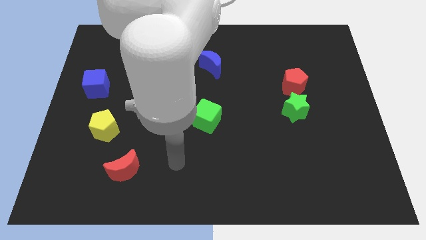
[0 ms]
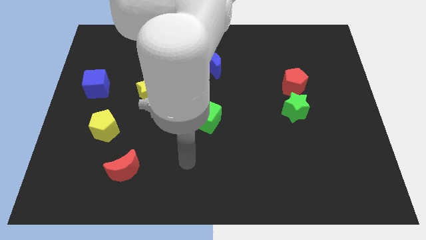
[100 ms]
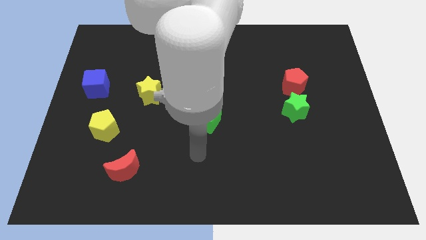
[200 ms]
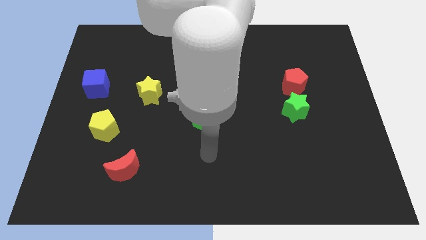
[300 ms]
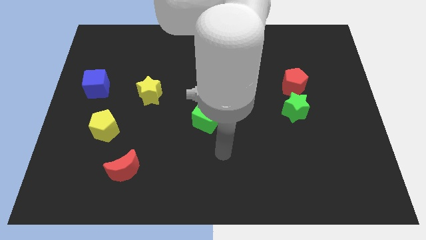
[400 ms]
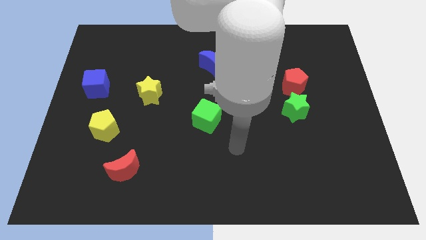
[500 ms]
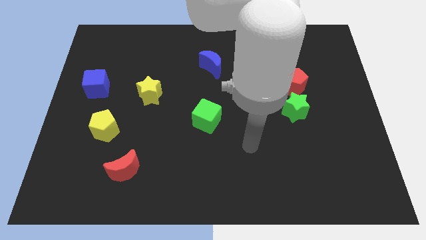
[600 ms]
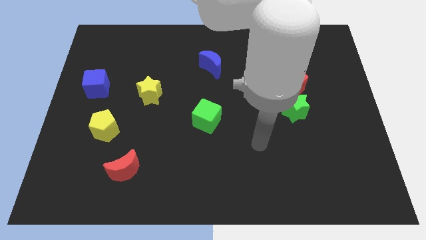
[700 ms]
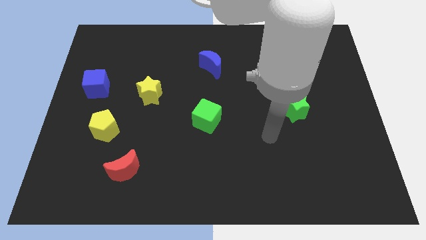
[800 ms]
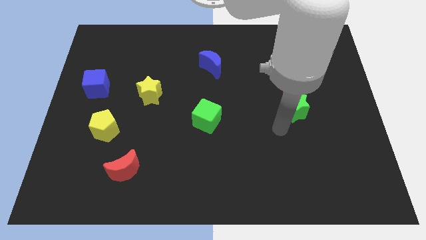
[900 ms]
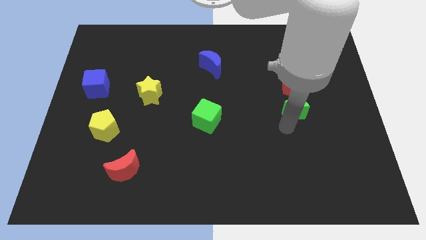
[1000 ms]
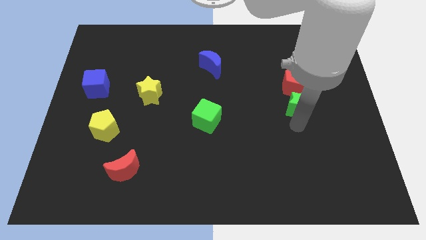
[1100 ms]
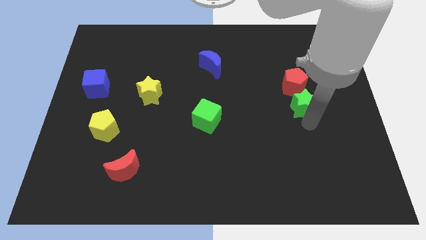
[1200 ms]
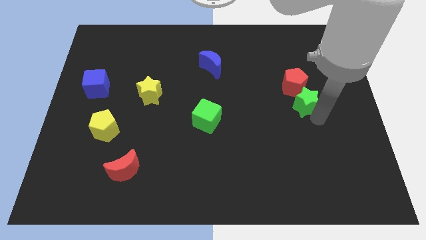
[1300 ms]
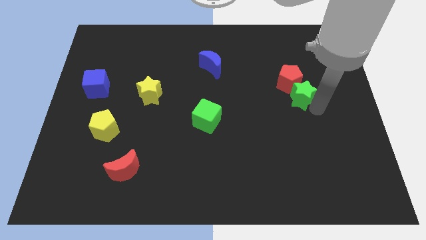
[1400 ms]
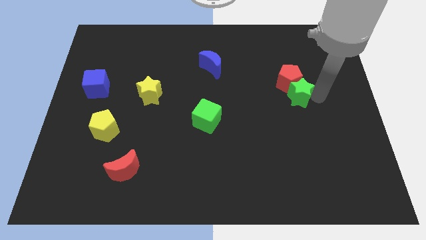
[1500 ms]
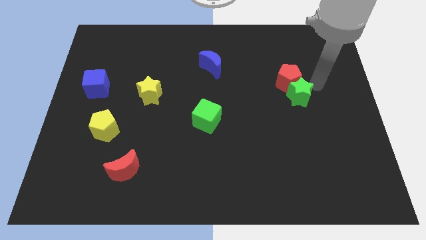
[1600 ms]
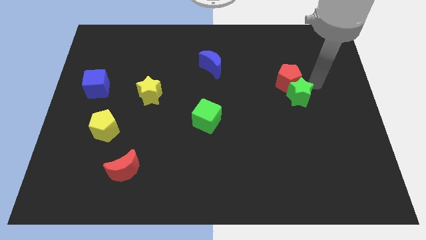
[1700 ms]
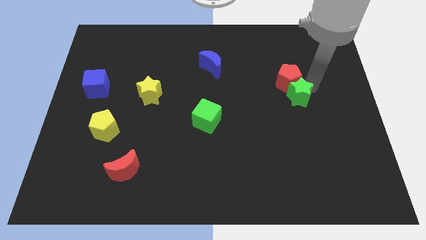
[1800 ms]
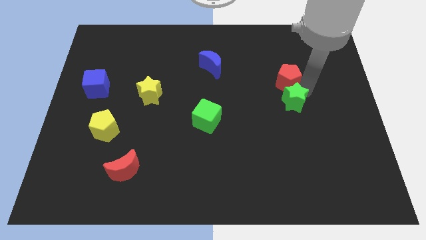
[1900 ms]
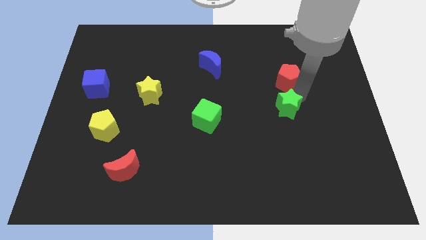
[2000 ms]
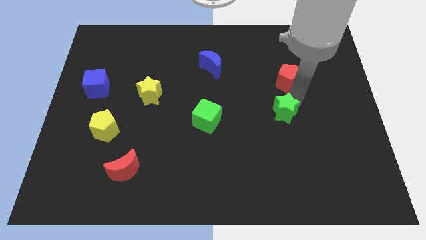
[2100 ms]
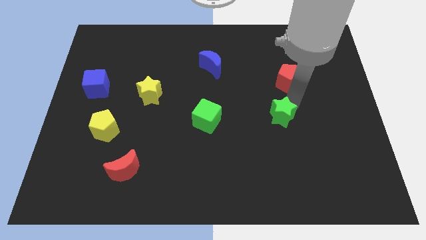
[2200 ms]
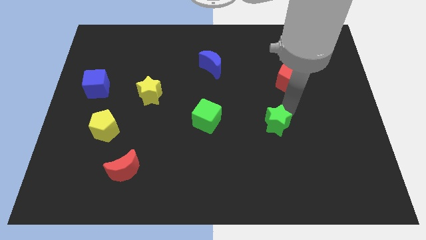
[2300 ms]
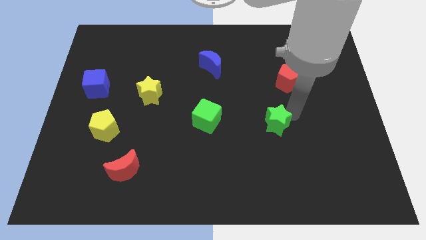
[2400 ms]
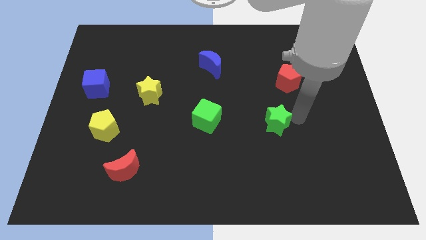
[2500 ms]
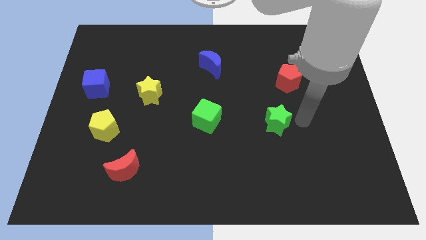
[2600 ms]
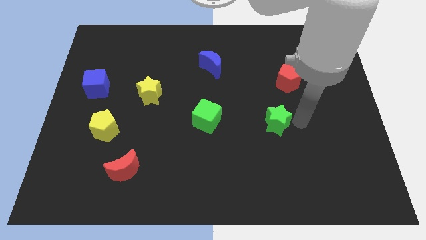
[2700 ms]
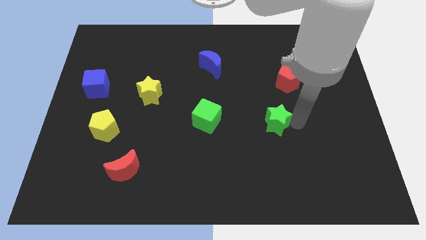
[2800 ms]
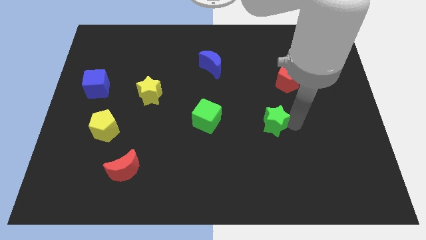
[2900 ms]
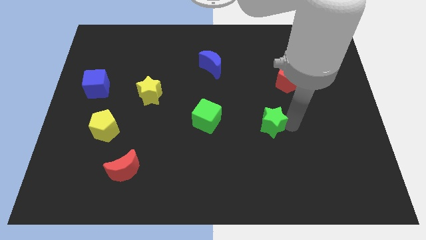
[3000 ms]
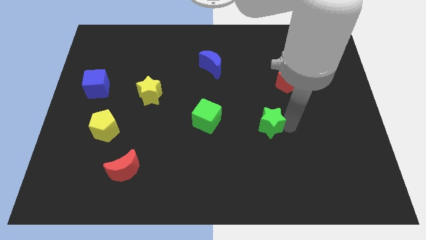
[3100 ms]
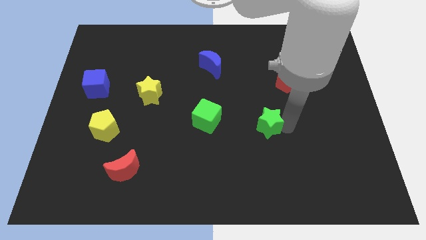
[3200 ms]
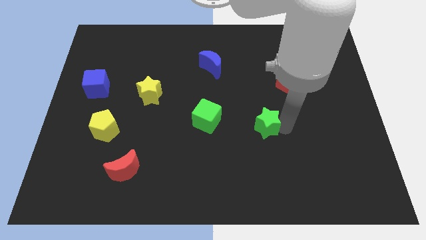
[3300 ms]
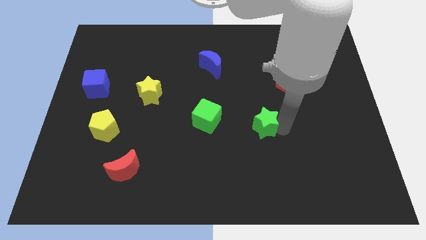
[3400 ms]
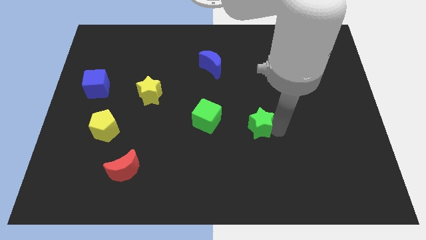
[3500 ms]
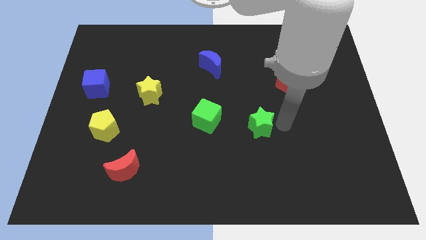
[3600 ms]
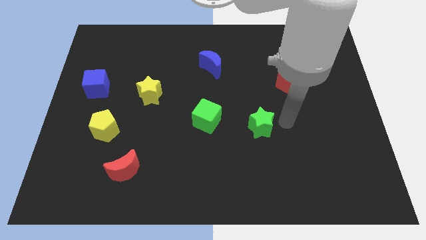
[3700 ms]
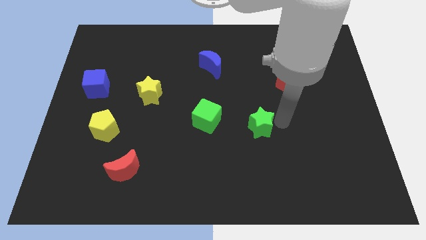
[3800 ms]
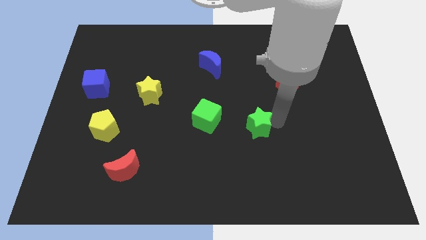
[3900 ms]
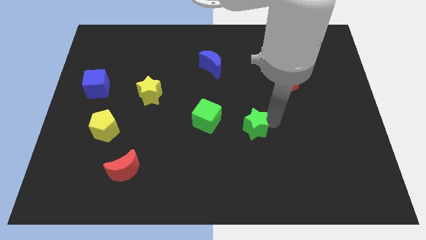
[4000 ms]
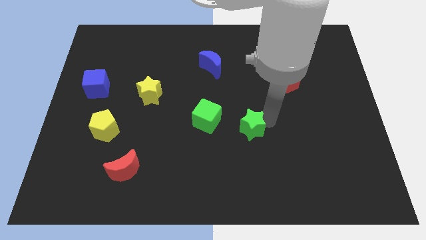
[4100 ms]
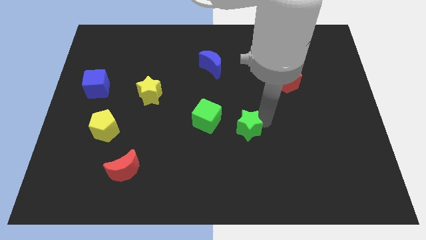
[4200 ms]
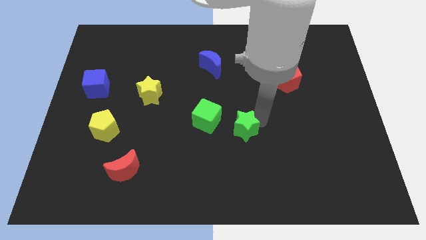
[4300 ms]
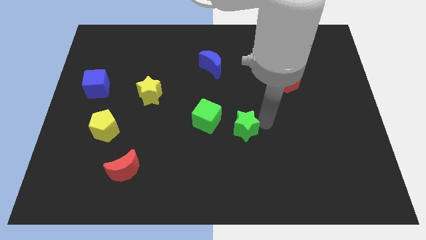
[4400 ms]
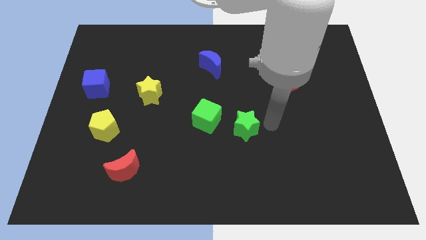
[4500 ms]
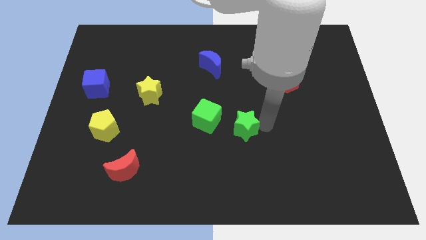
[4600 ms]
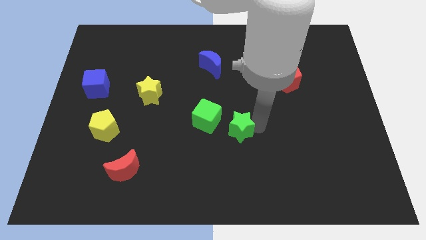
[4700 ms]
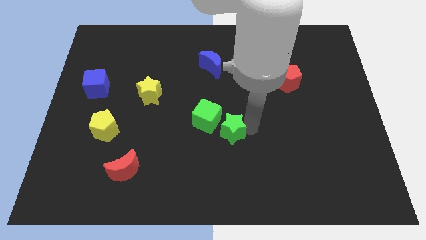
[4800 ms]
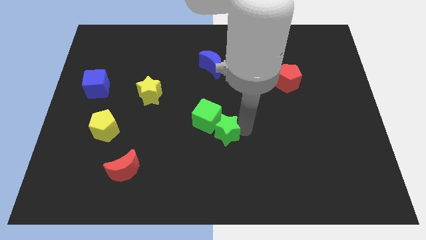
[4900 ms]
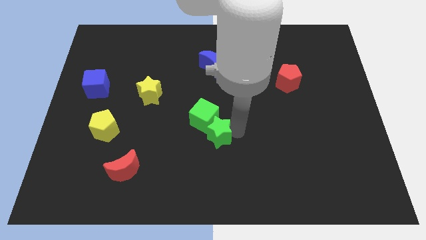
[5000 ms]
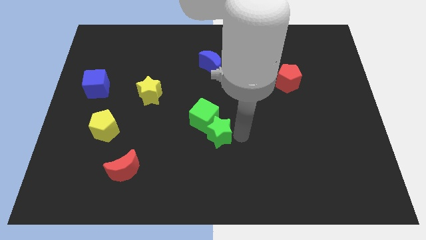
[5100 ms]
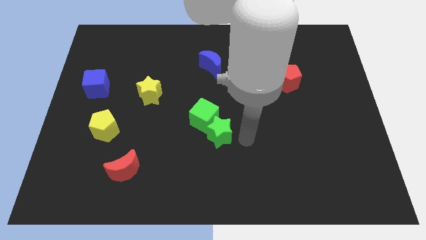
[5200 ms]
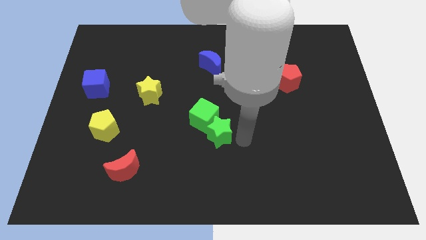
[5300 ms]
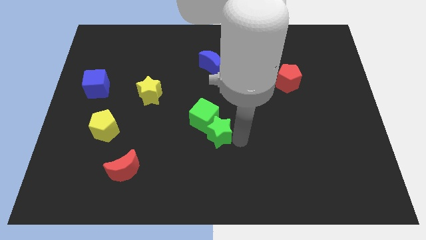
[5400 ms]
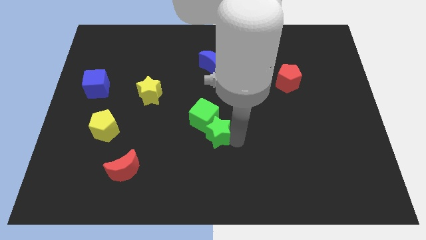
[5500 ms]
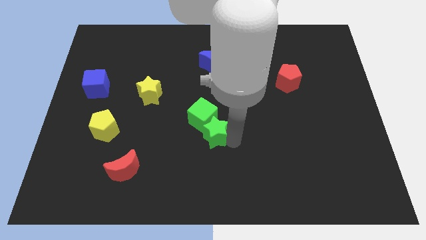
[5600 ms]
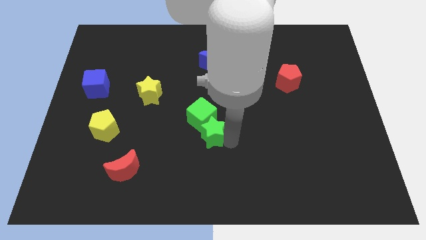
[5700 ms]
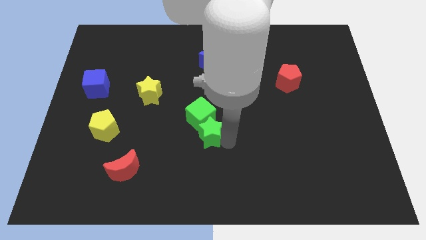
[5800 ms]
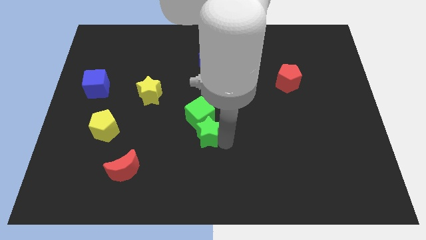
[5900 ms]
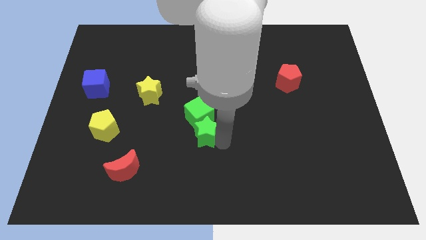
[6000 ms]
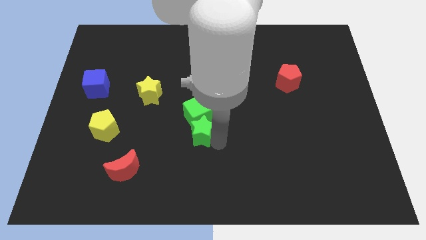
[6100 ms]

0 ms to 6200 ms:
slide the green star left

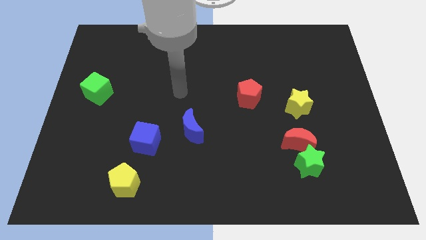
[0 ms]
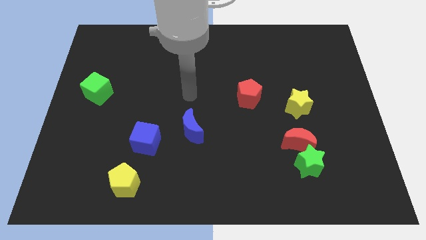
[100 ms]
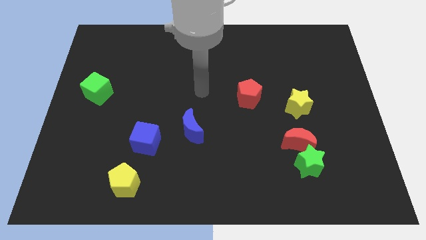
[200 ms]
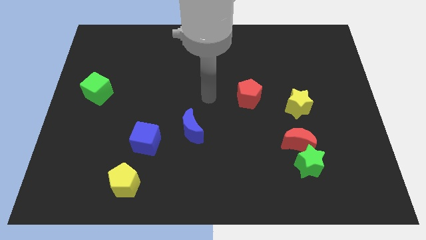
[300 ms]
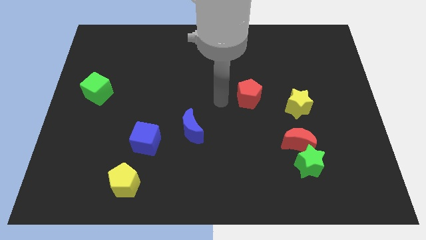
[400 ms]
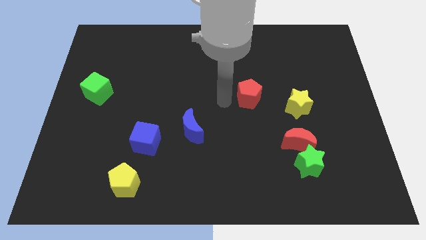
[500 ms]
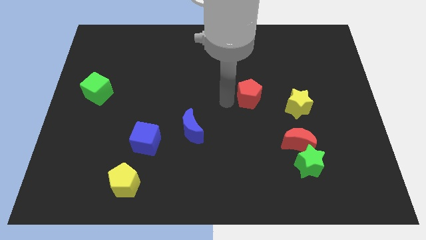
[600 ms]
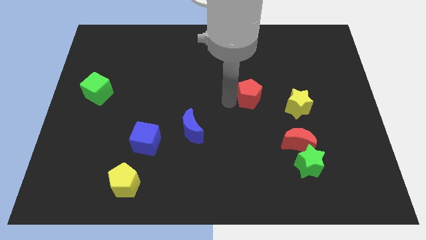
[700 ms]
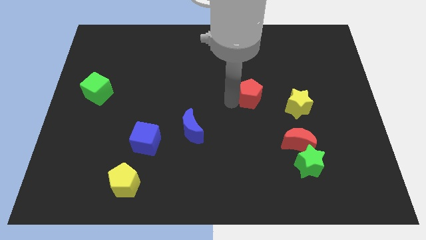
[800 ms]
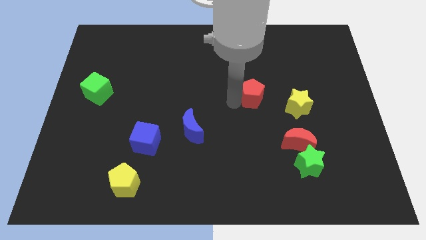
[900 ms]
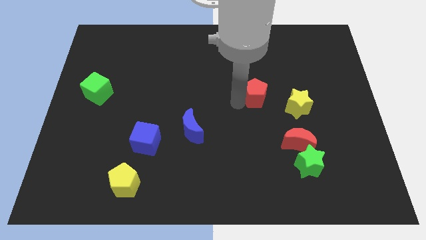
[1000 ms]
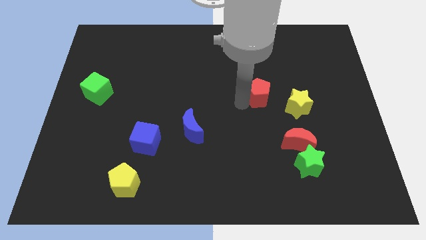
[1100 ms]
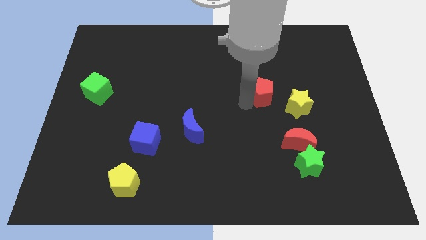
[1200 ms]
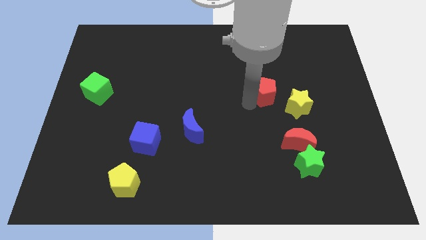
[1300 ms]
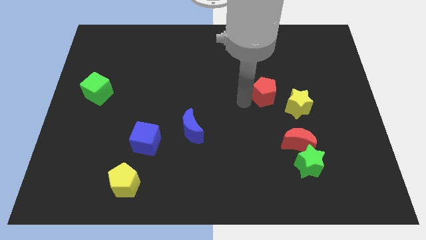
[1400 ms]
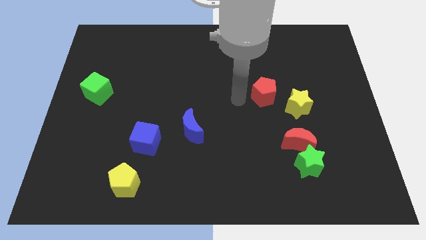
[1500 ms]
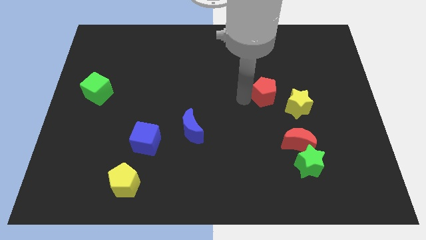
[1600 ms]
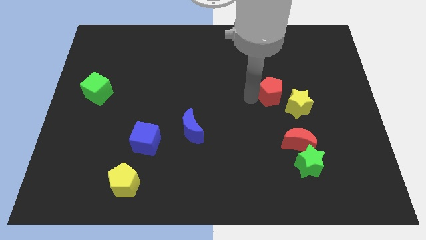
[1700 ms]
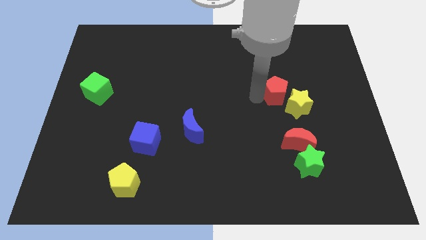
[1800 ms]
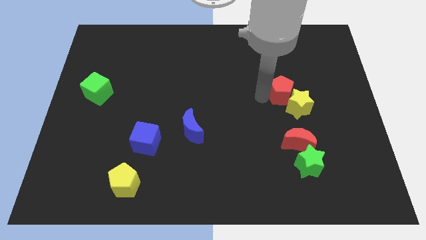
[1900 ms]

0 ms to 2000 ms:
move the red pentagon right a little bit
